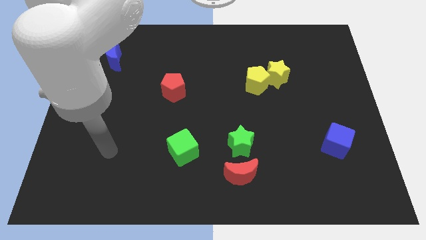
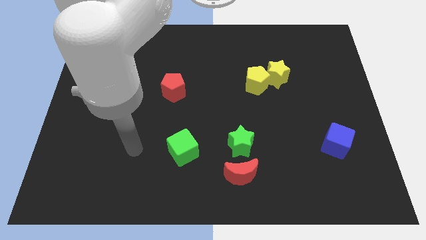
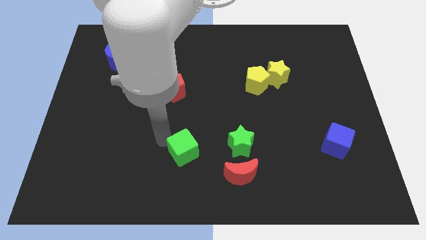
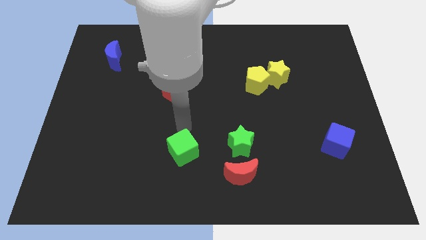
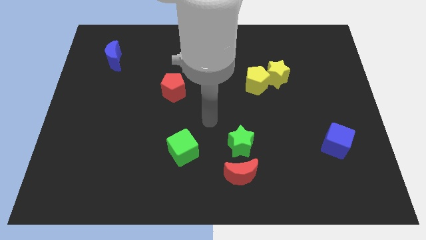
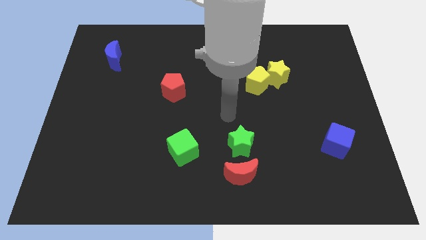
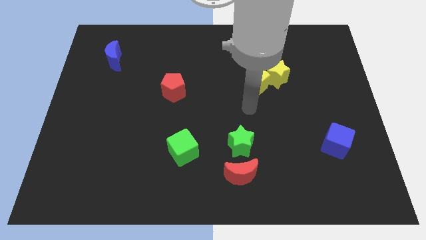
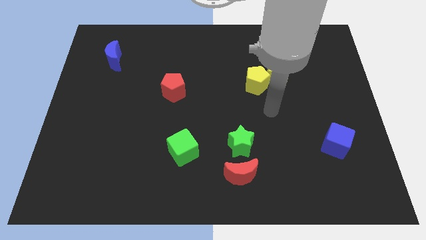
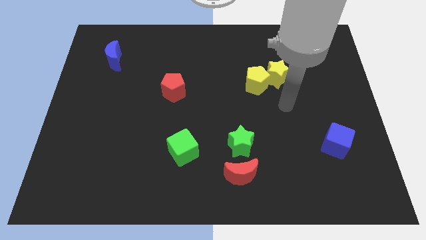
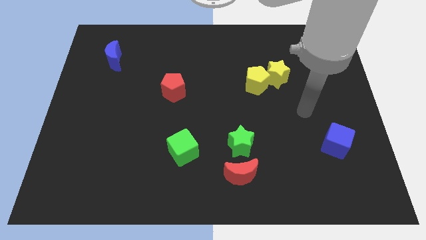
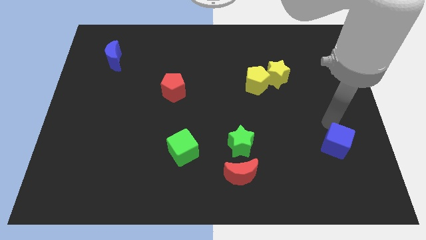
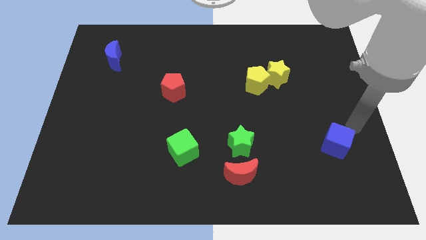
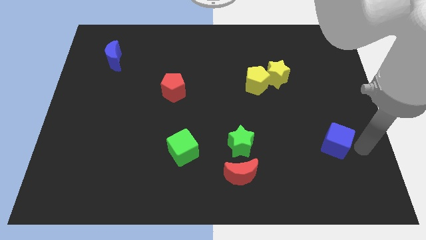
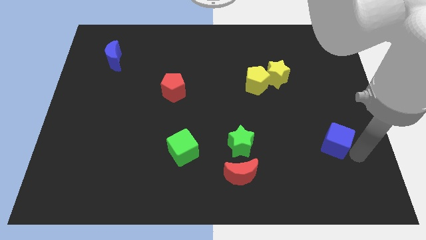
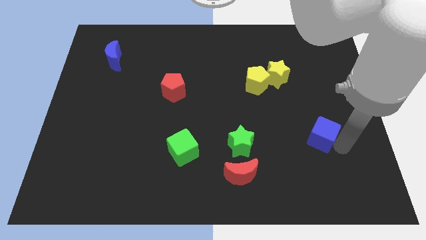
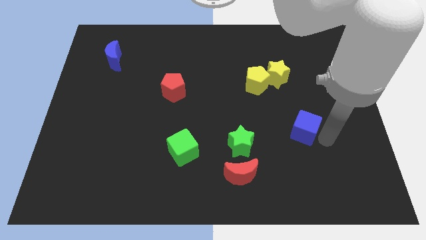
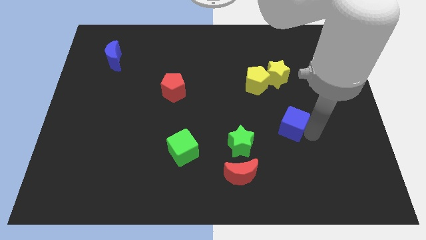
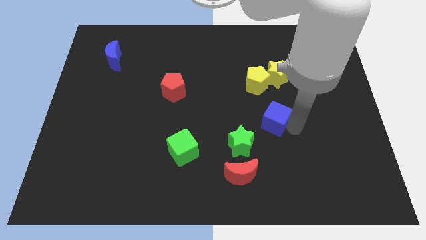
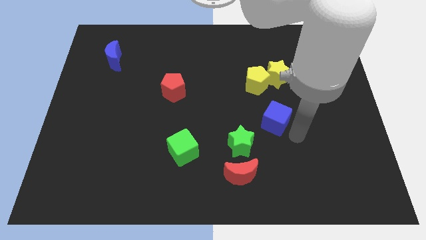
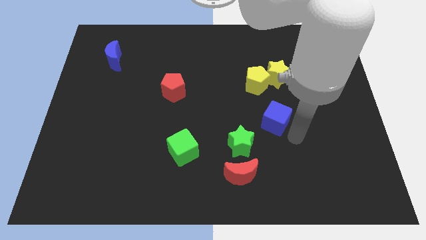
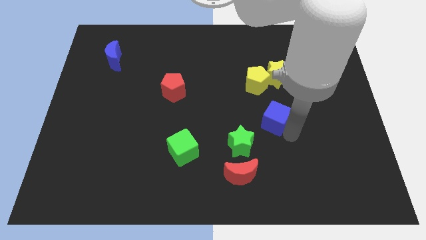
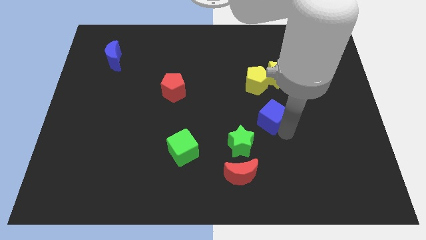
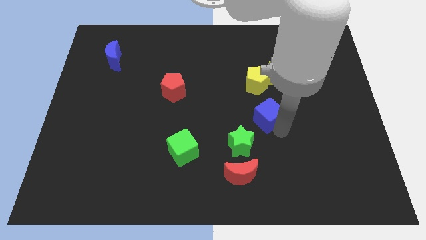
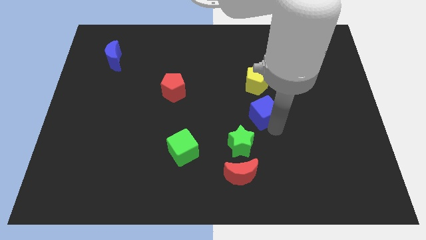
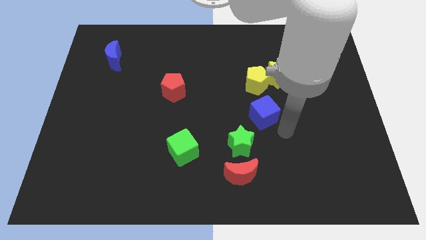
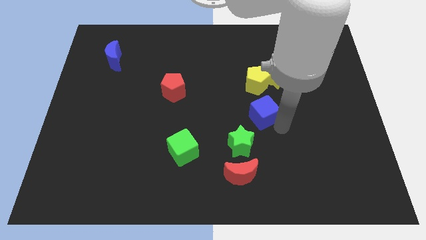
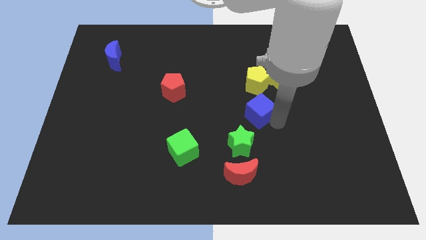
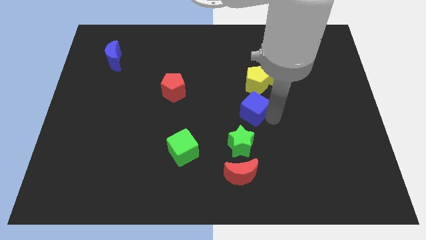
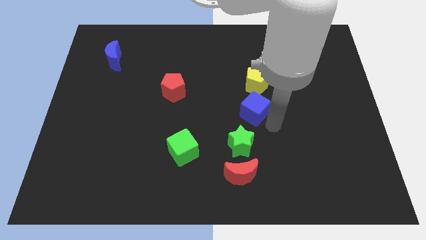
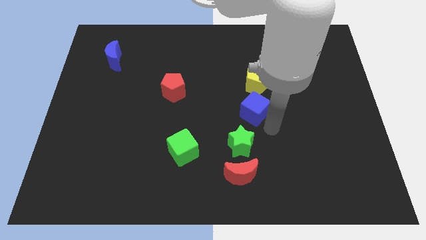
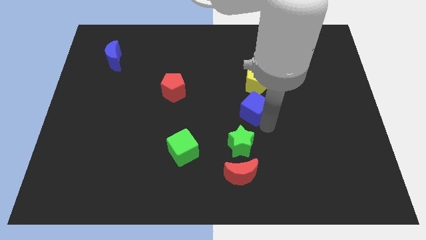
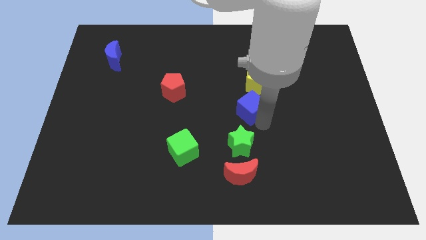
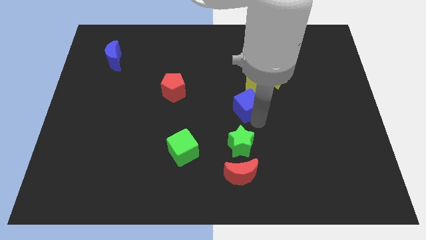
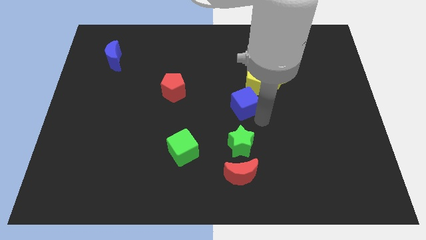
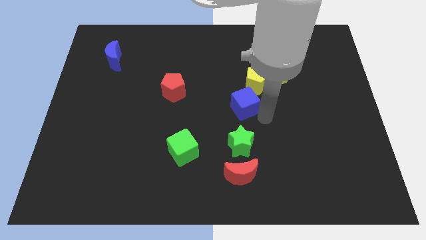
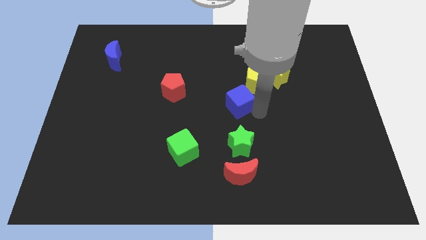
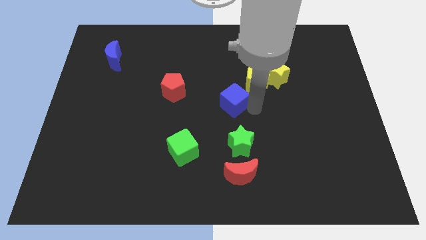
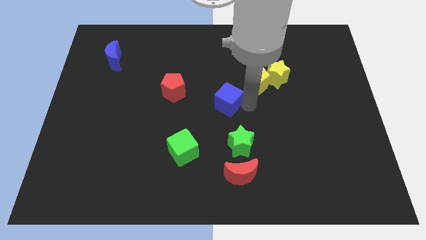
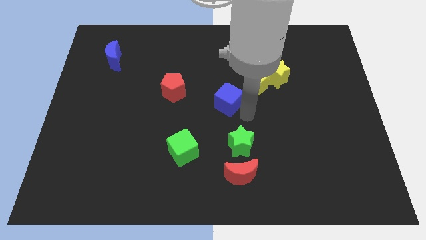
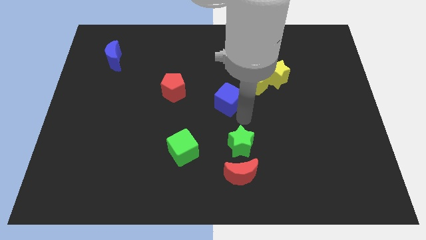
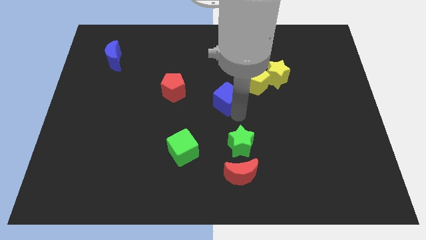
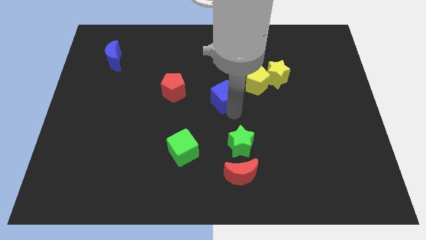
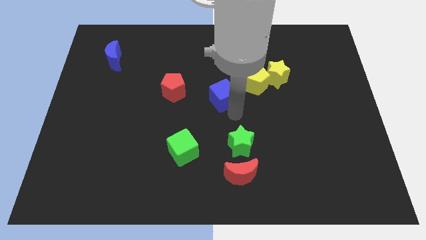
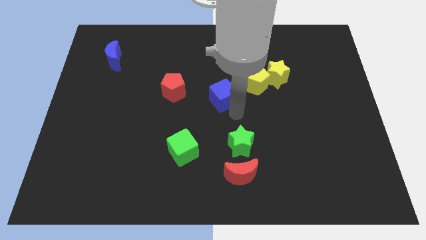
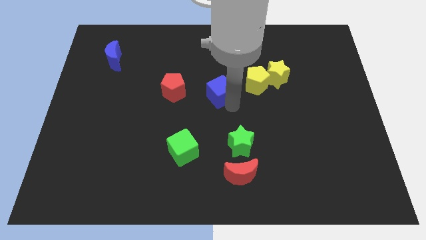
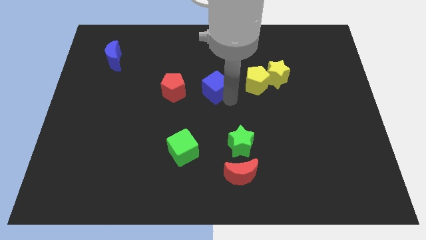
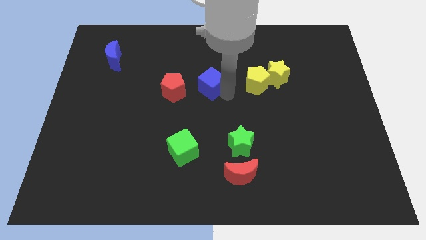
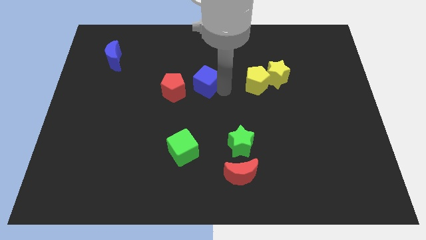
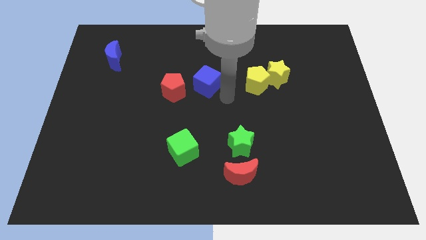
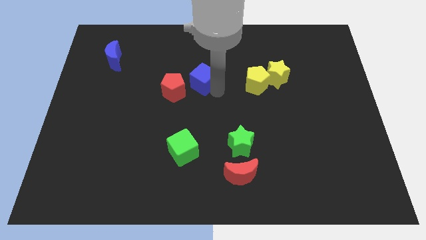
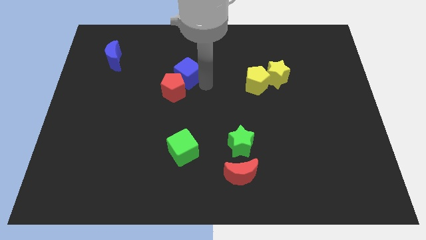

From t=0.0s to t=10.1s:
push the blue cube to the top side of the red pentagon

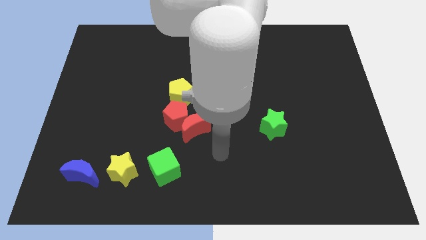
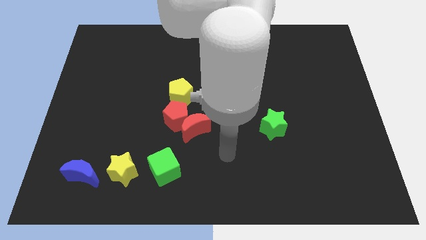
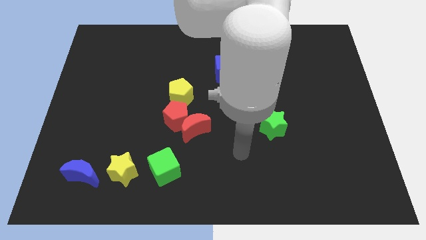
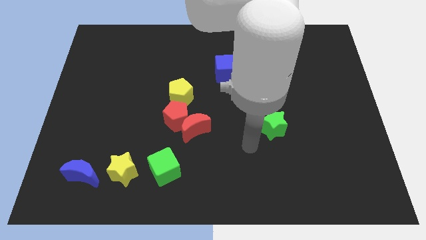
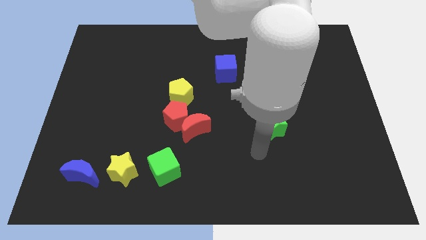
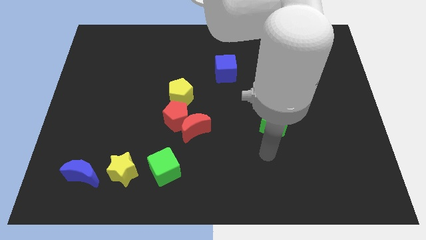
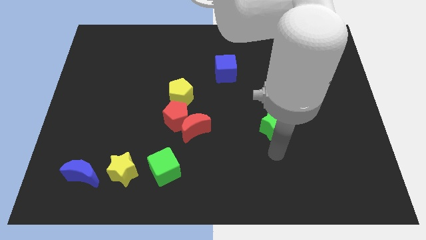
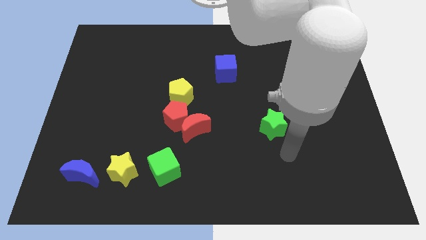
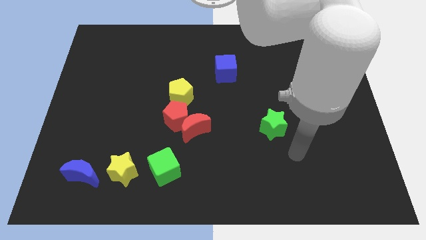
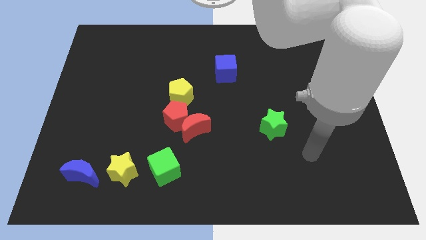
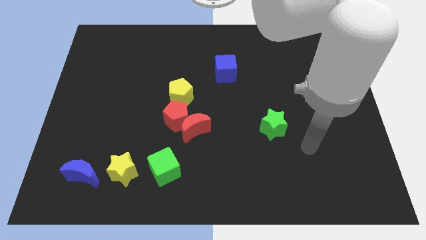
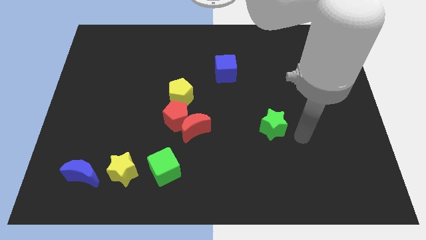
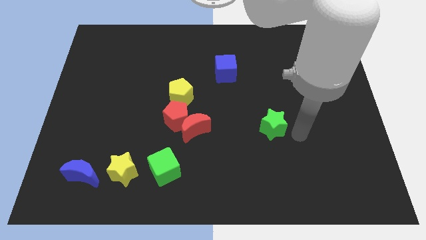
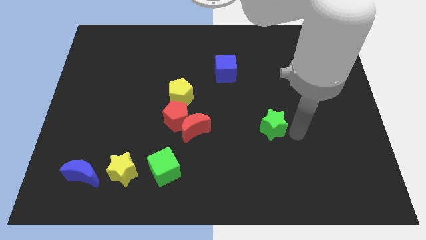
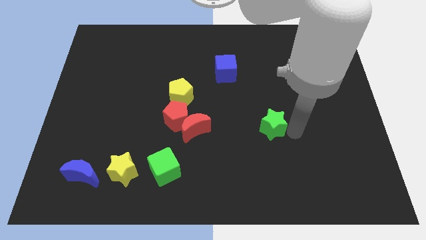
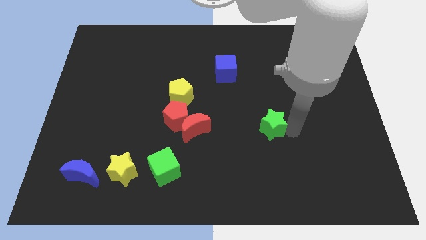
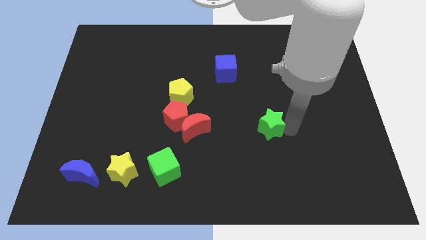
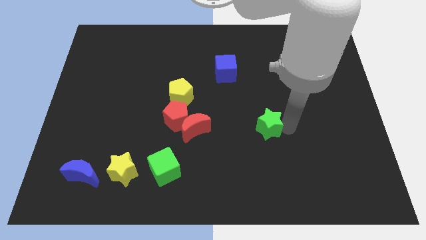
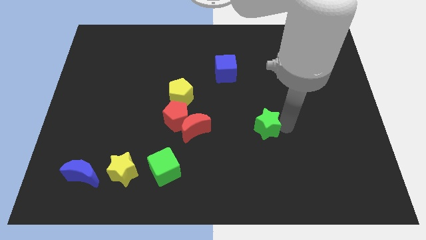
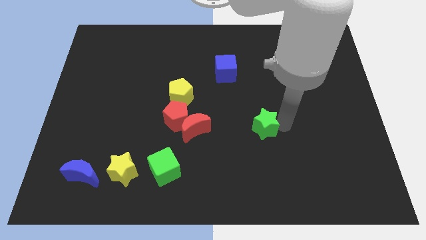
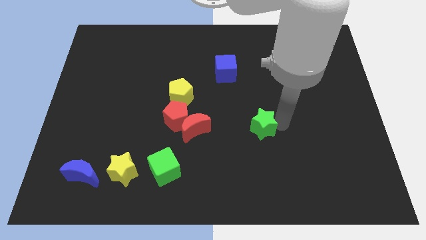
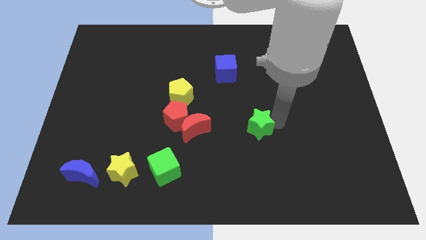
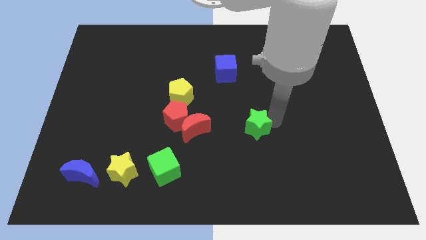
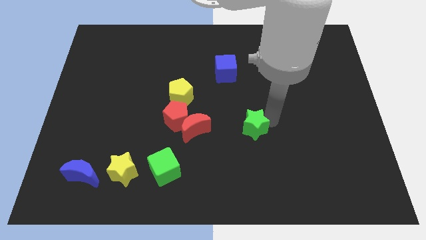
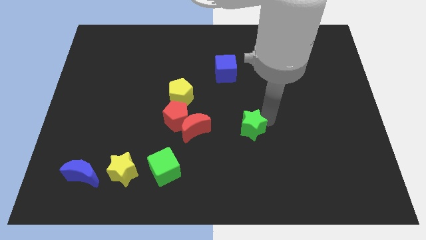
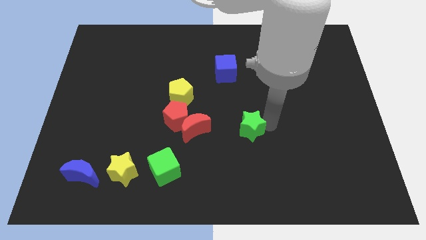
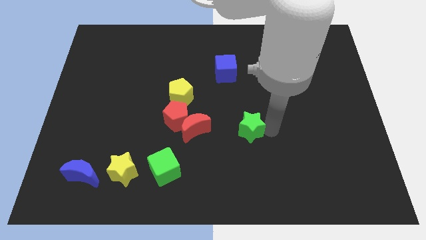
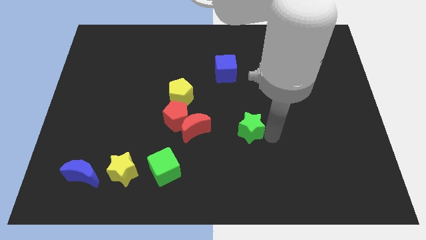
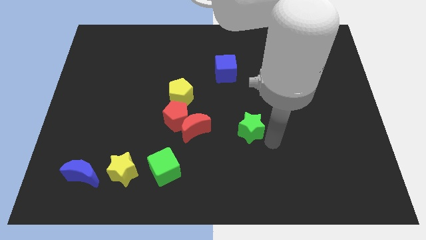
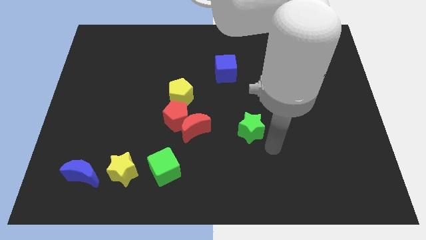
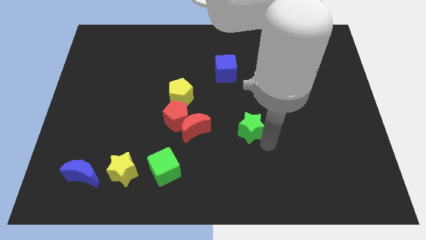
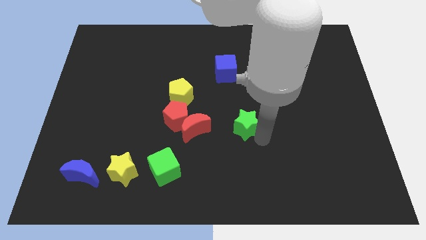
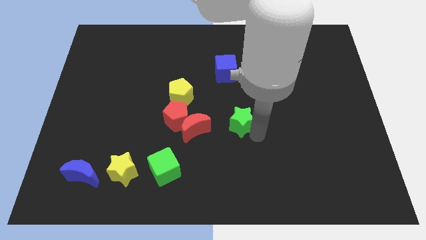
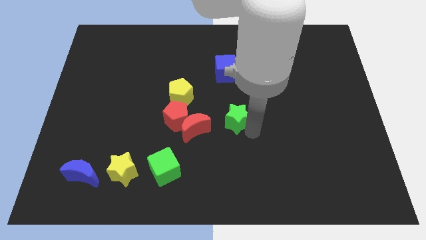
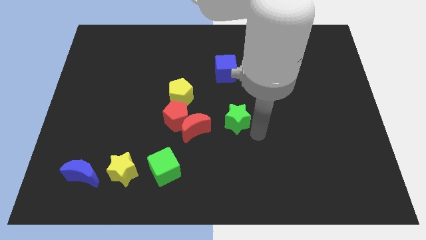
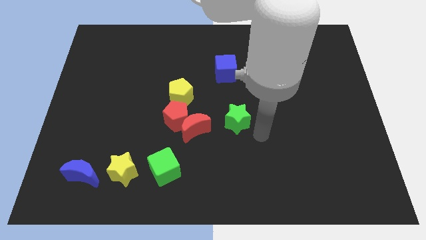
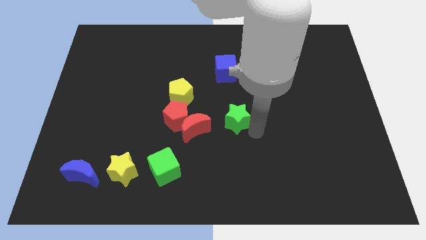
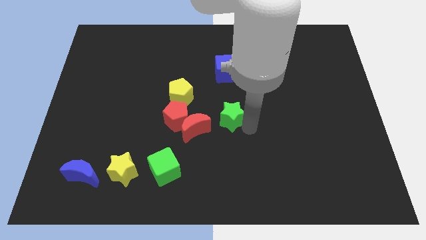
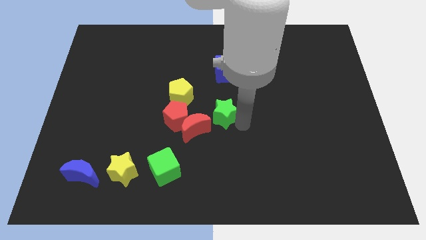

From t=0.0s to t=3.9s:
push the green star diagonally down and to the right of the yellow pentagon
